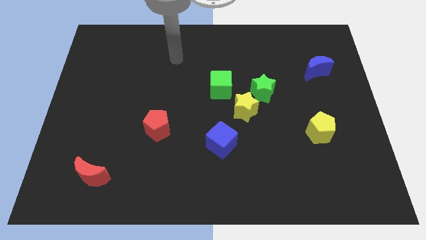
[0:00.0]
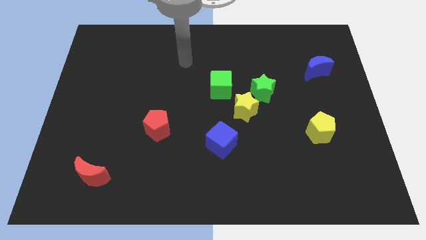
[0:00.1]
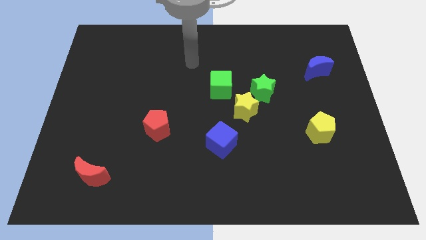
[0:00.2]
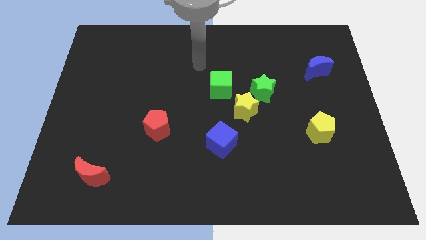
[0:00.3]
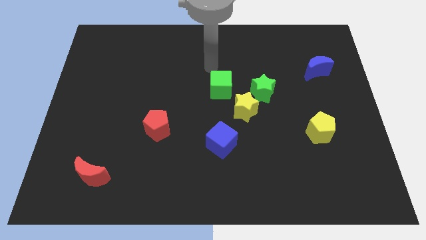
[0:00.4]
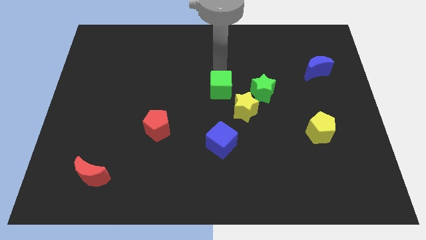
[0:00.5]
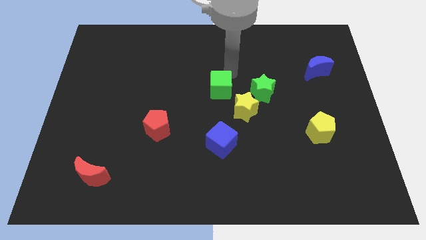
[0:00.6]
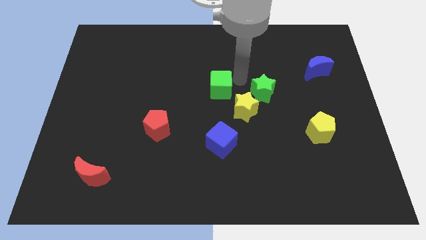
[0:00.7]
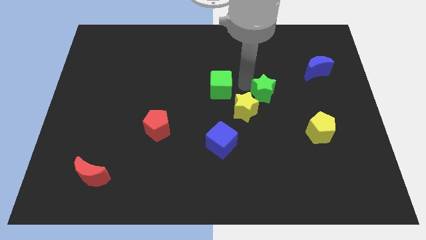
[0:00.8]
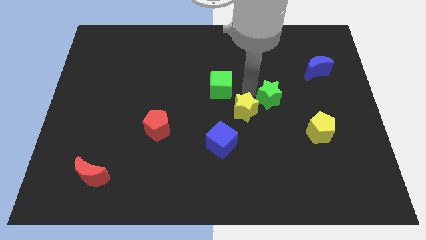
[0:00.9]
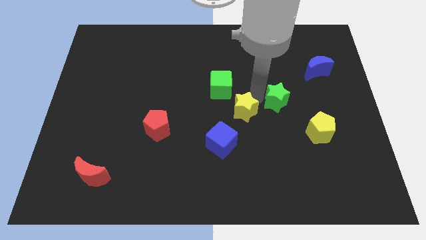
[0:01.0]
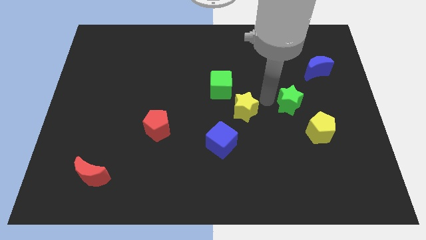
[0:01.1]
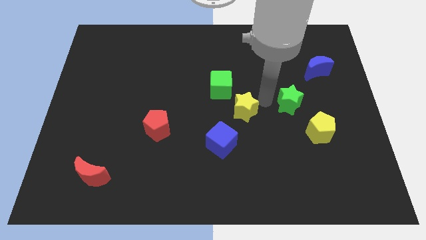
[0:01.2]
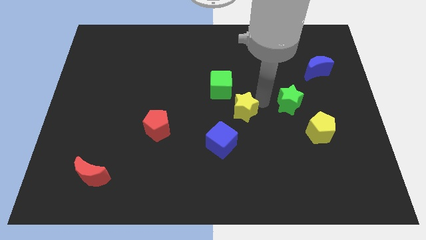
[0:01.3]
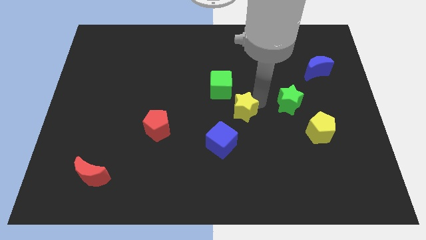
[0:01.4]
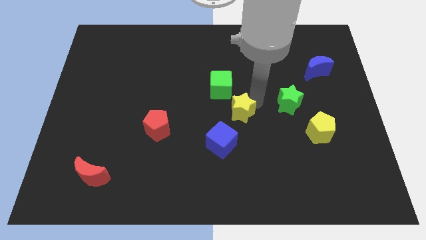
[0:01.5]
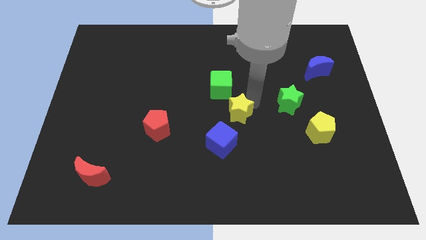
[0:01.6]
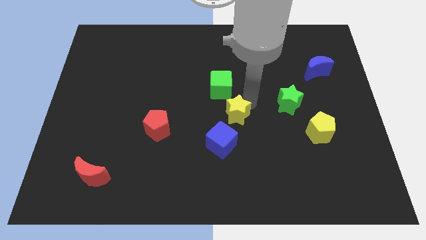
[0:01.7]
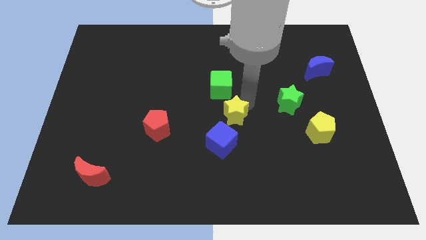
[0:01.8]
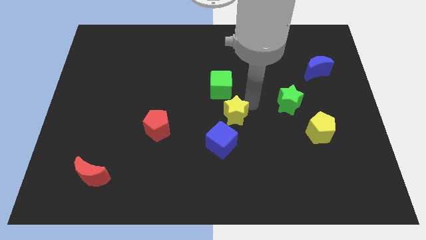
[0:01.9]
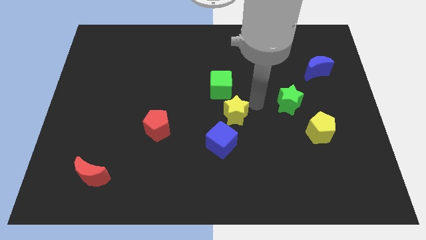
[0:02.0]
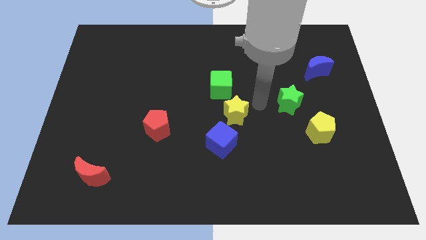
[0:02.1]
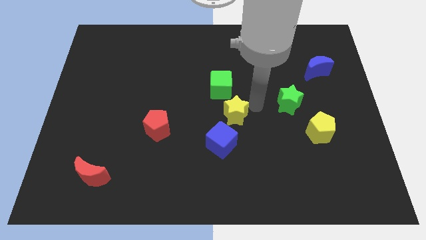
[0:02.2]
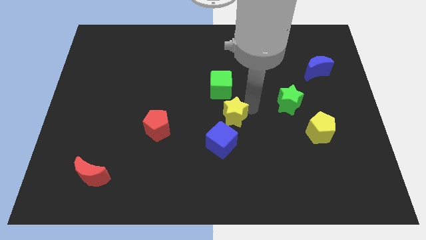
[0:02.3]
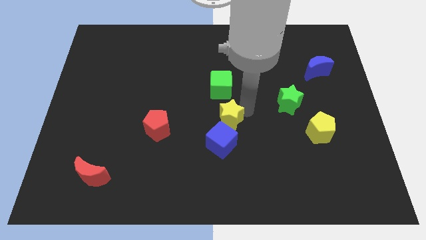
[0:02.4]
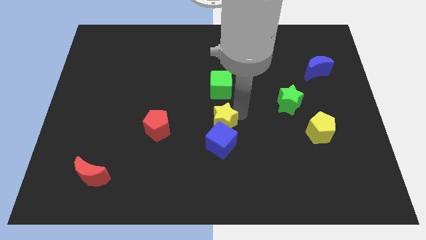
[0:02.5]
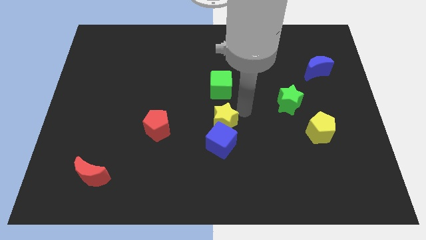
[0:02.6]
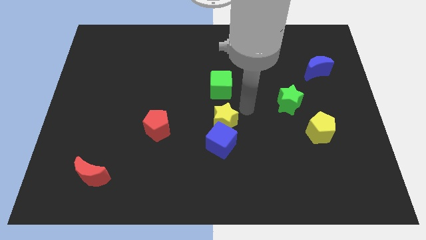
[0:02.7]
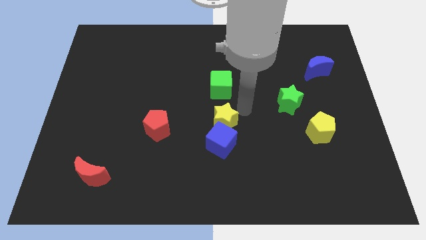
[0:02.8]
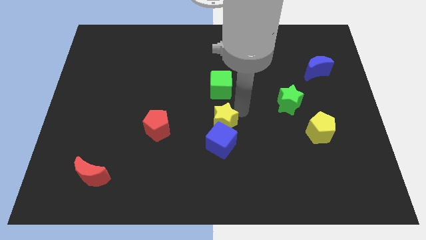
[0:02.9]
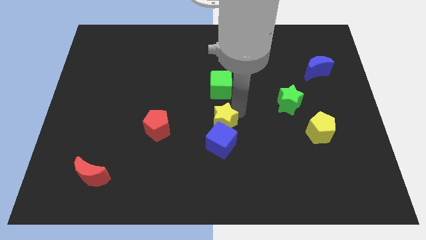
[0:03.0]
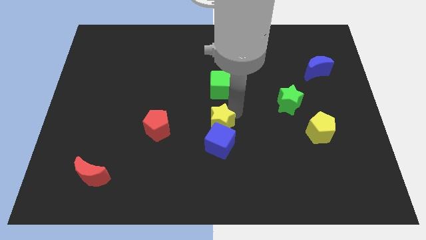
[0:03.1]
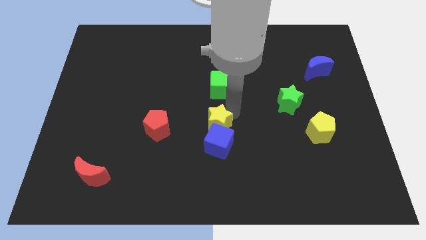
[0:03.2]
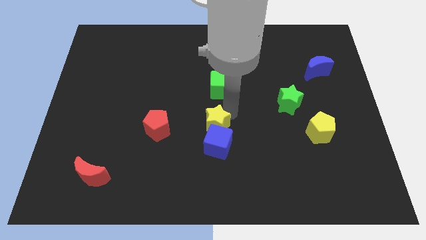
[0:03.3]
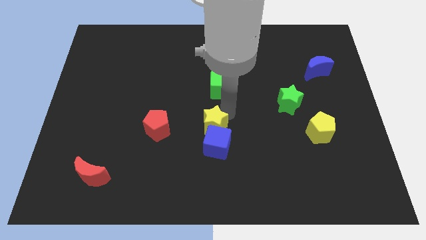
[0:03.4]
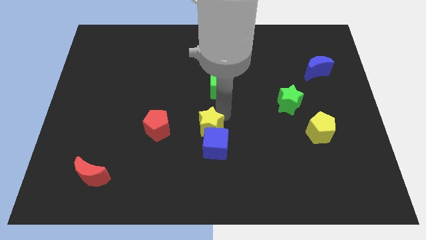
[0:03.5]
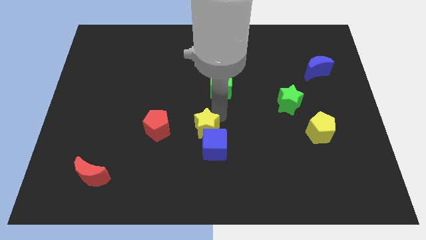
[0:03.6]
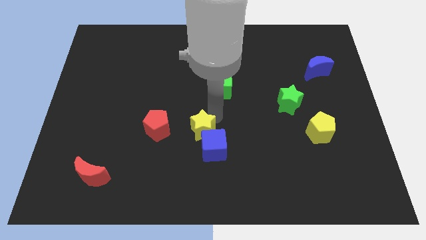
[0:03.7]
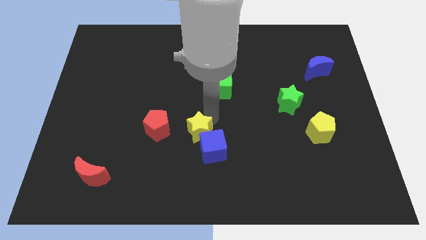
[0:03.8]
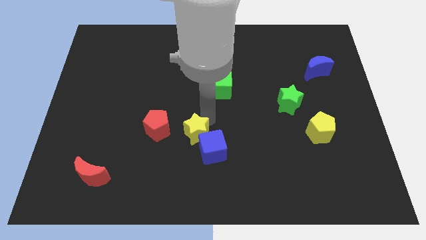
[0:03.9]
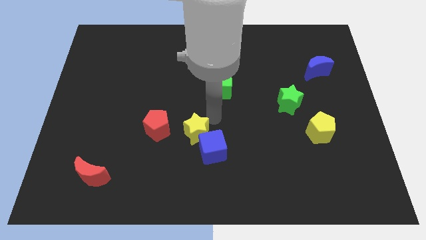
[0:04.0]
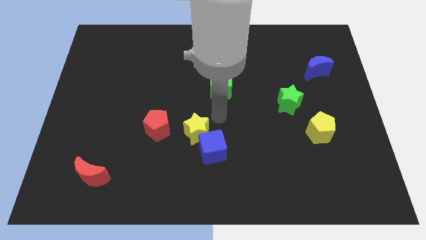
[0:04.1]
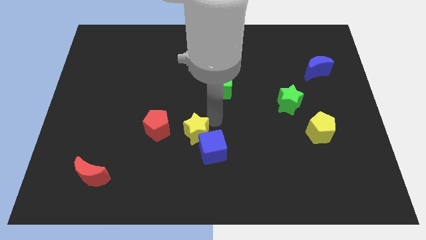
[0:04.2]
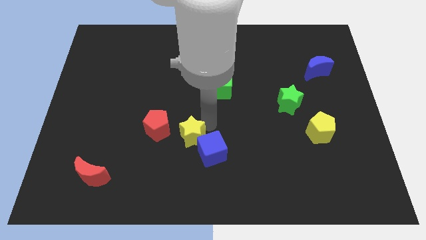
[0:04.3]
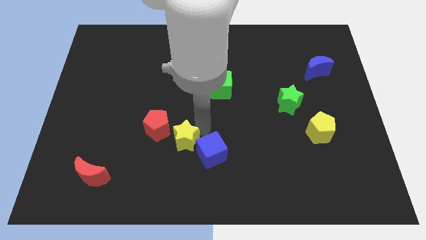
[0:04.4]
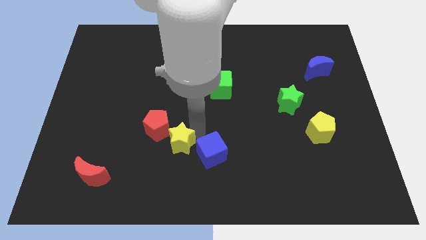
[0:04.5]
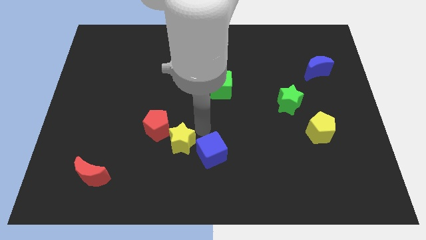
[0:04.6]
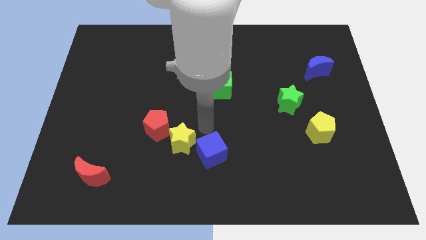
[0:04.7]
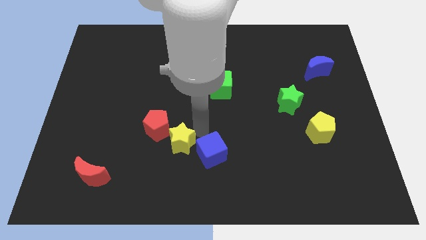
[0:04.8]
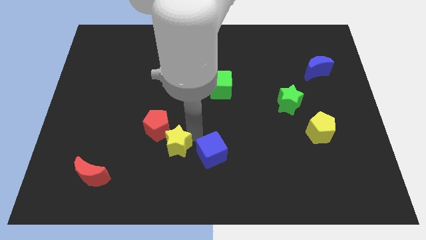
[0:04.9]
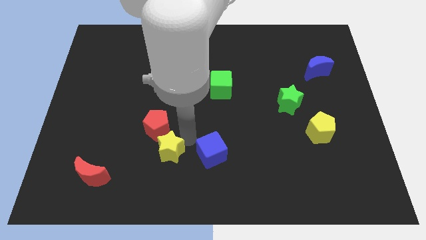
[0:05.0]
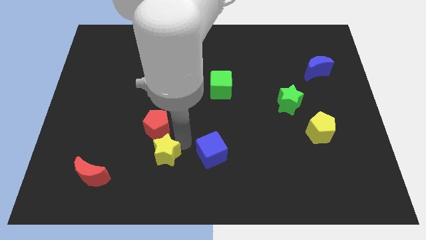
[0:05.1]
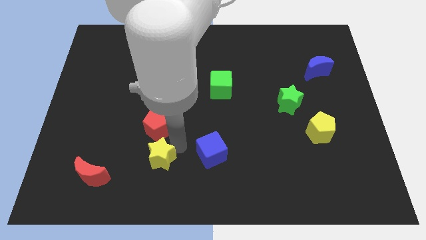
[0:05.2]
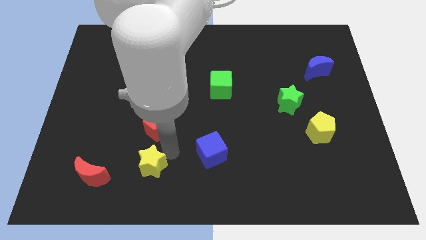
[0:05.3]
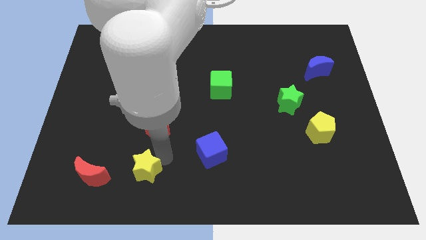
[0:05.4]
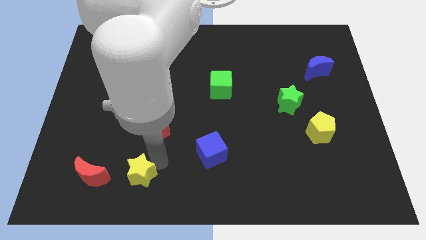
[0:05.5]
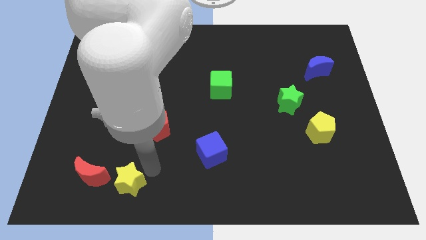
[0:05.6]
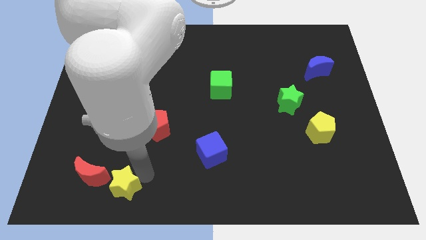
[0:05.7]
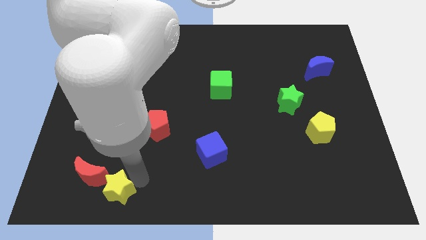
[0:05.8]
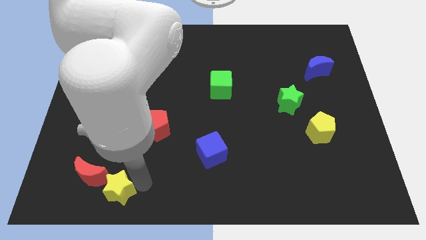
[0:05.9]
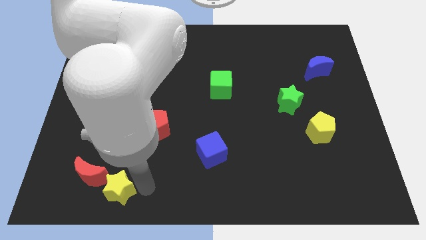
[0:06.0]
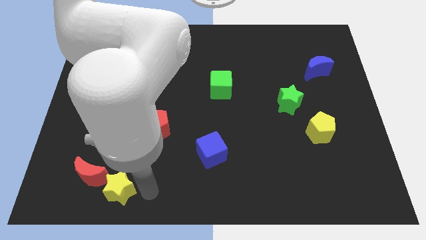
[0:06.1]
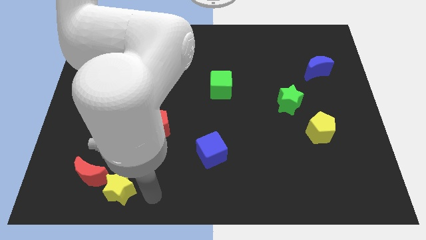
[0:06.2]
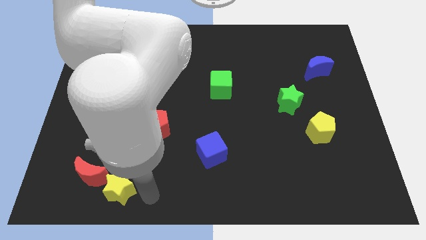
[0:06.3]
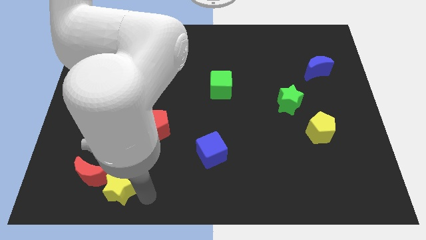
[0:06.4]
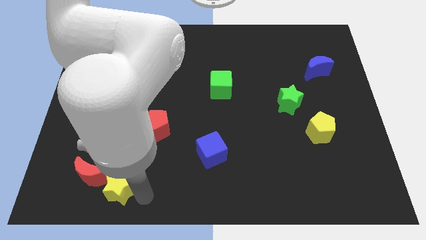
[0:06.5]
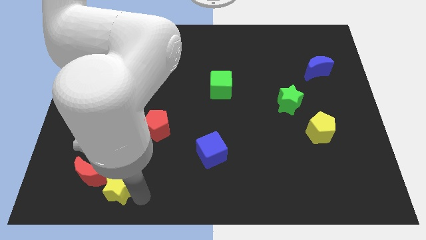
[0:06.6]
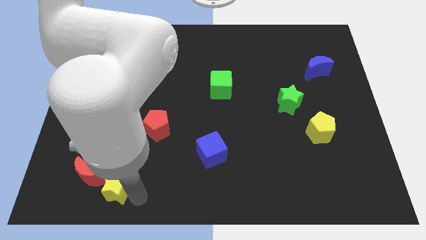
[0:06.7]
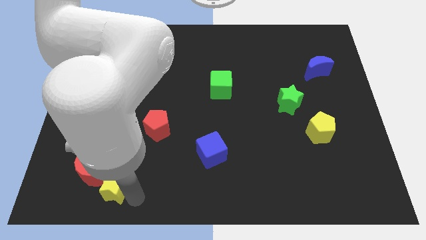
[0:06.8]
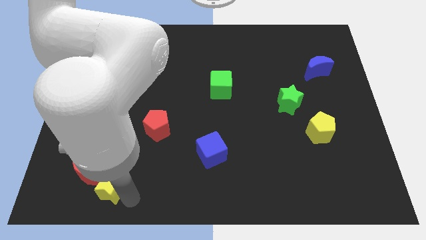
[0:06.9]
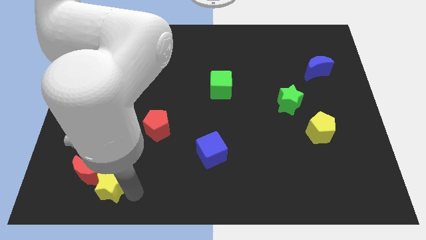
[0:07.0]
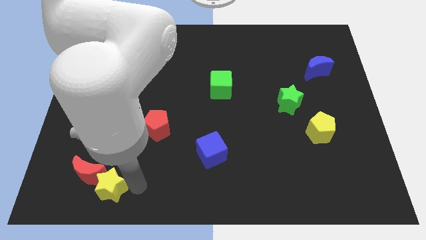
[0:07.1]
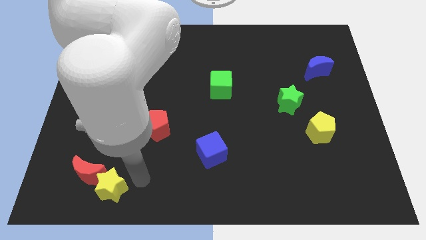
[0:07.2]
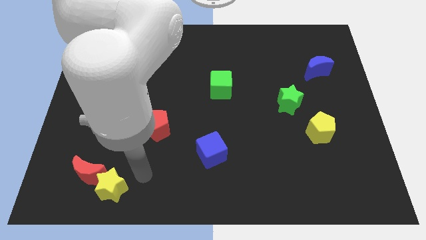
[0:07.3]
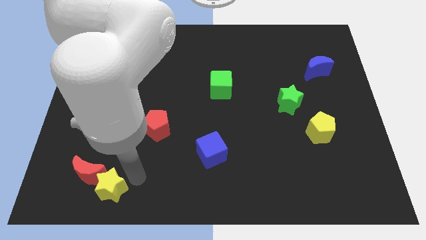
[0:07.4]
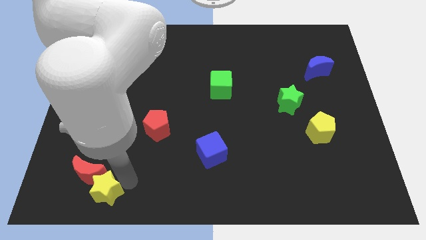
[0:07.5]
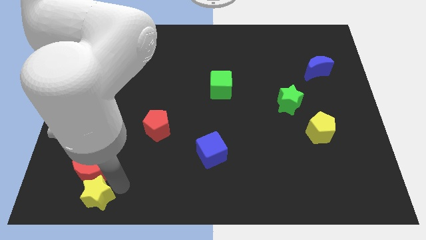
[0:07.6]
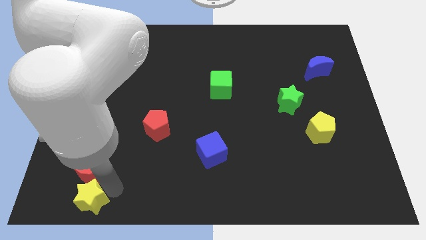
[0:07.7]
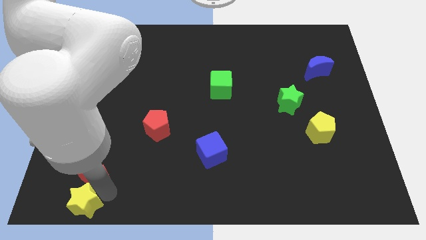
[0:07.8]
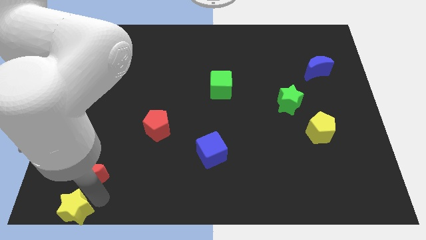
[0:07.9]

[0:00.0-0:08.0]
move the yellow star to the lower left corner
